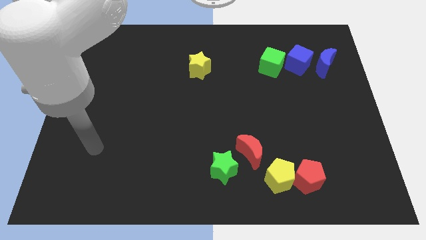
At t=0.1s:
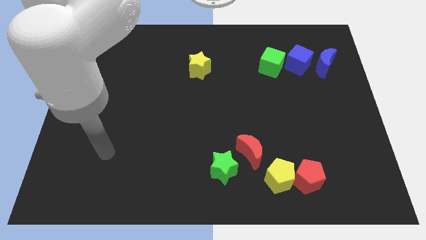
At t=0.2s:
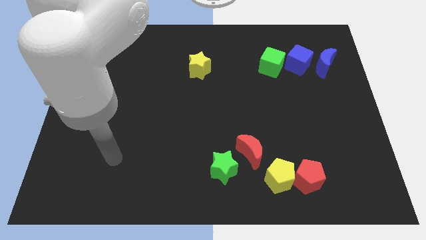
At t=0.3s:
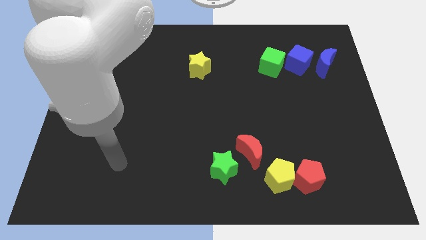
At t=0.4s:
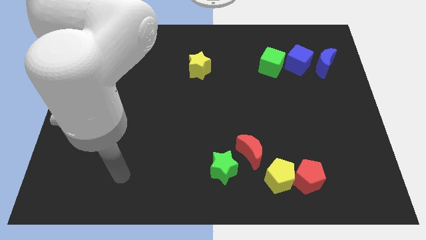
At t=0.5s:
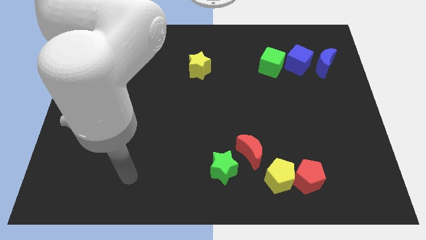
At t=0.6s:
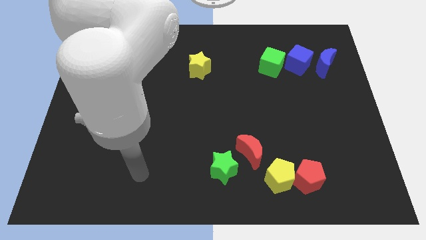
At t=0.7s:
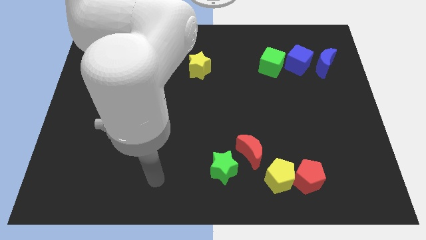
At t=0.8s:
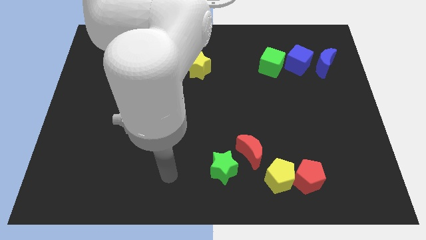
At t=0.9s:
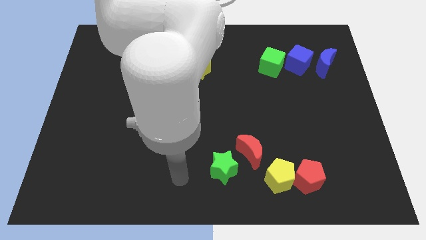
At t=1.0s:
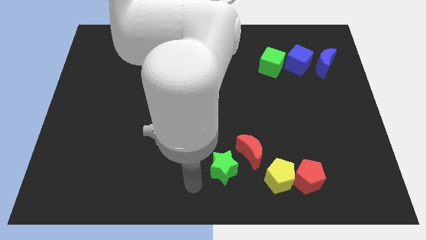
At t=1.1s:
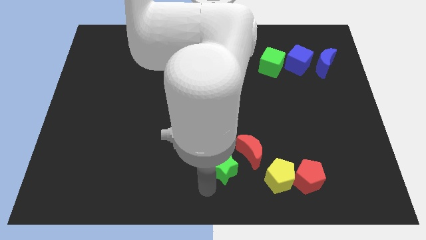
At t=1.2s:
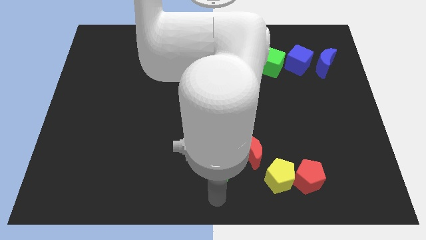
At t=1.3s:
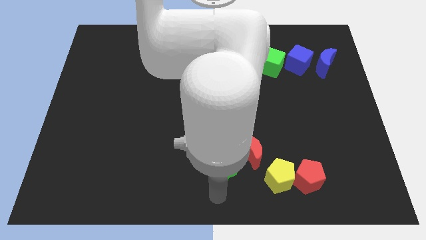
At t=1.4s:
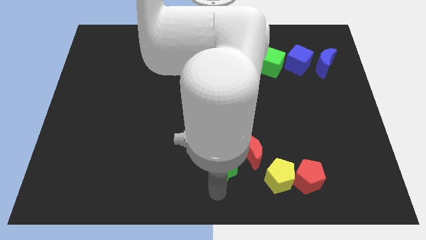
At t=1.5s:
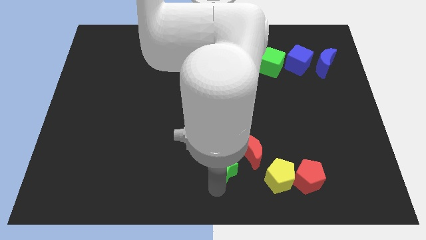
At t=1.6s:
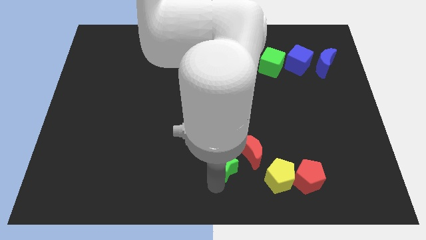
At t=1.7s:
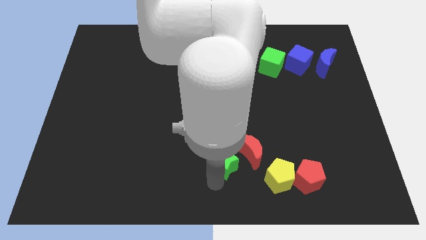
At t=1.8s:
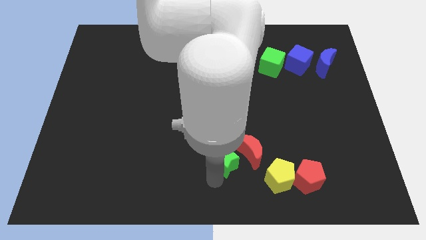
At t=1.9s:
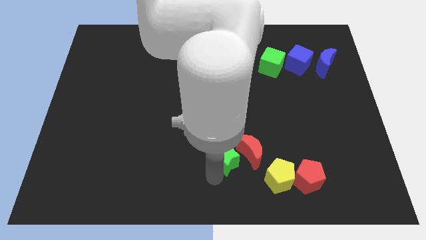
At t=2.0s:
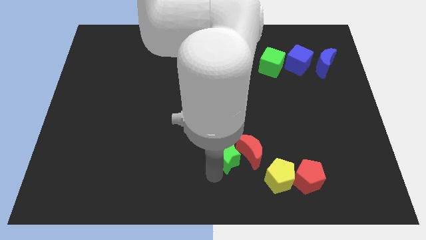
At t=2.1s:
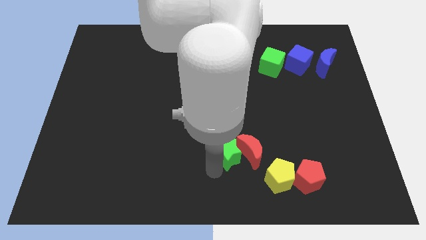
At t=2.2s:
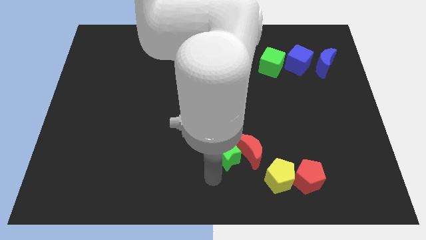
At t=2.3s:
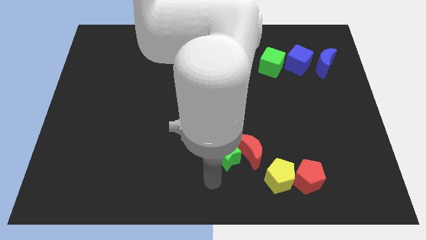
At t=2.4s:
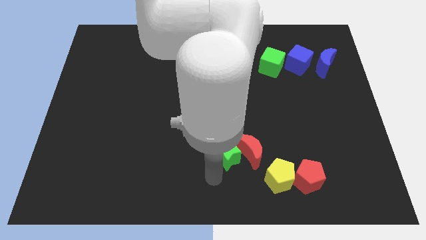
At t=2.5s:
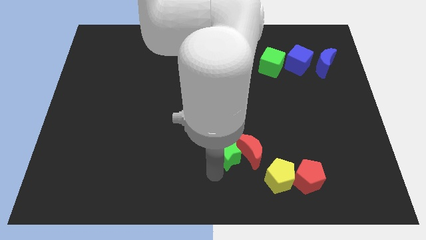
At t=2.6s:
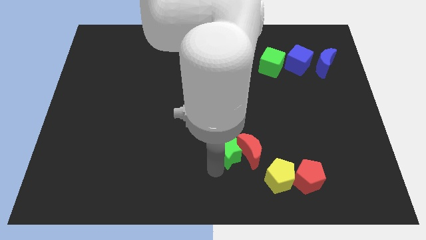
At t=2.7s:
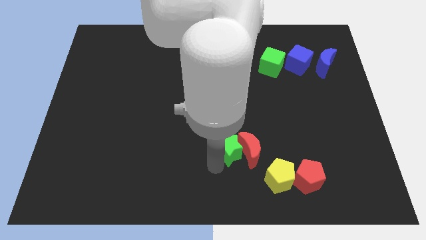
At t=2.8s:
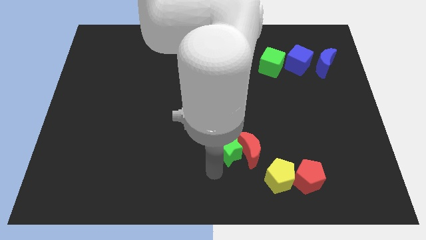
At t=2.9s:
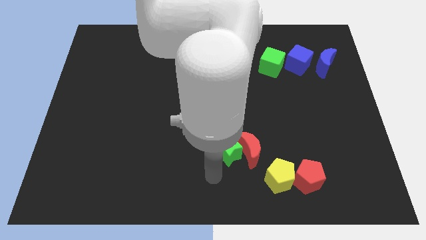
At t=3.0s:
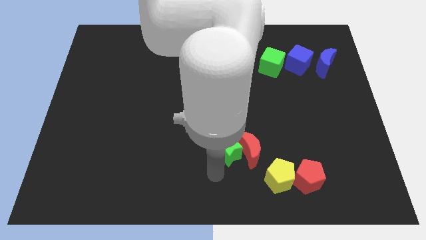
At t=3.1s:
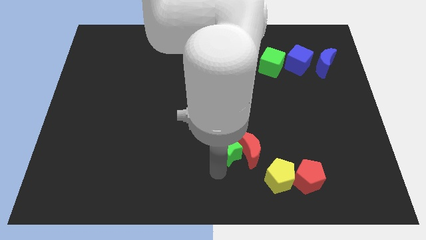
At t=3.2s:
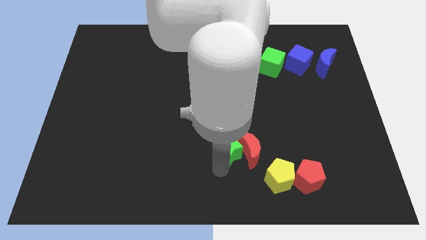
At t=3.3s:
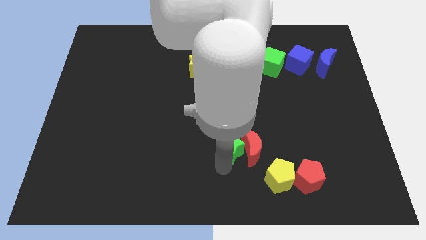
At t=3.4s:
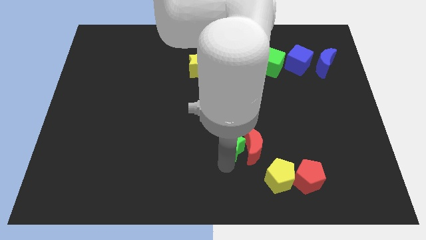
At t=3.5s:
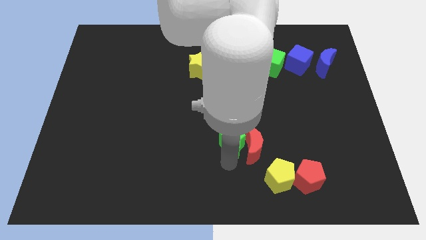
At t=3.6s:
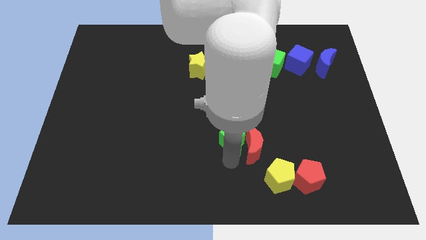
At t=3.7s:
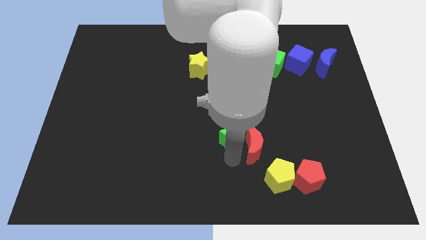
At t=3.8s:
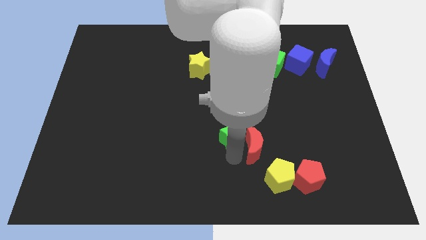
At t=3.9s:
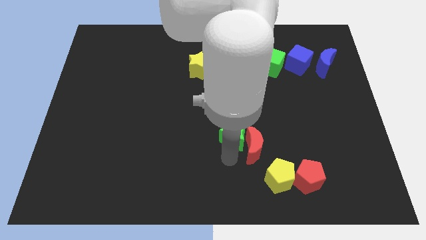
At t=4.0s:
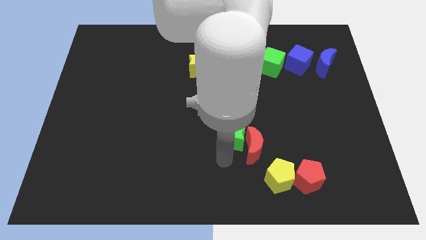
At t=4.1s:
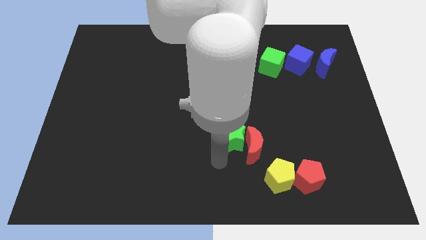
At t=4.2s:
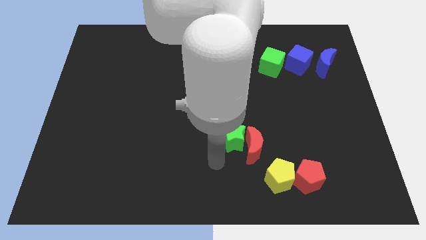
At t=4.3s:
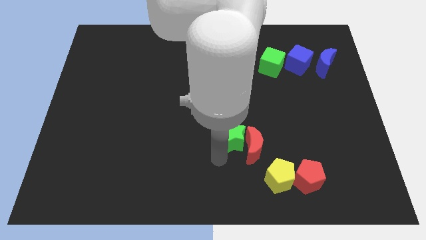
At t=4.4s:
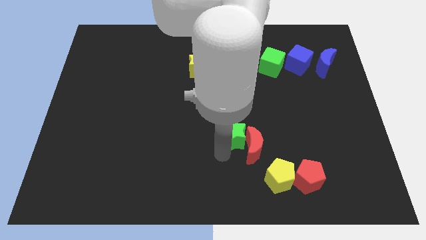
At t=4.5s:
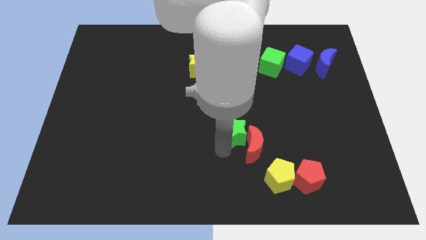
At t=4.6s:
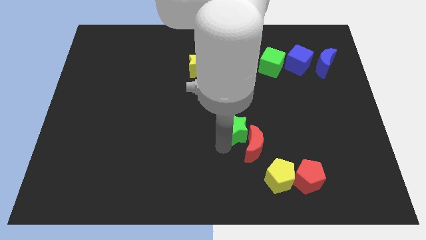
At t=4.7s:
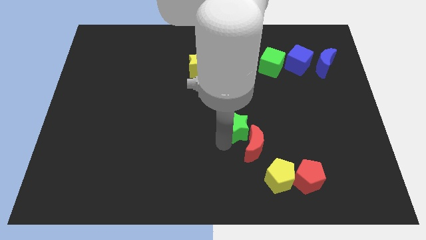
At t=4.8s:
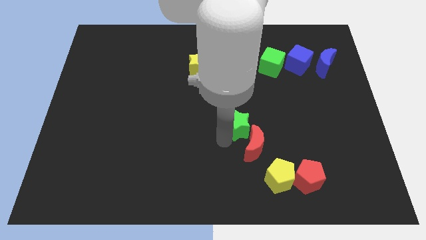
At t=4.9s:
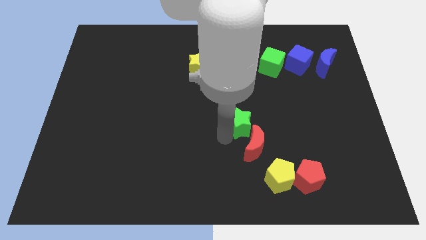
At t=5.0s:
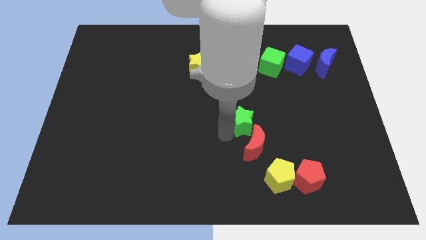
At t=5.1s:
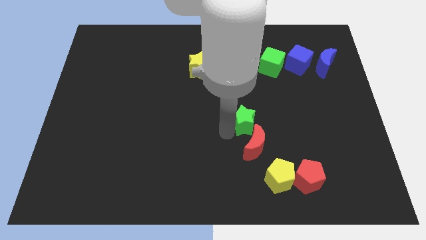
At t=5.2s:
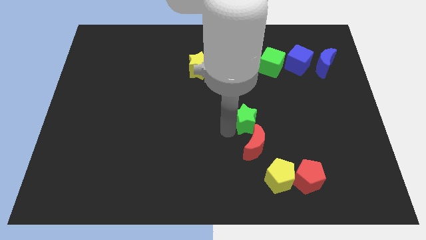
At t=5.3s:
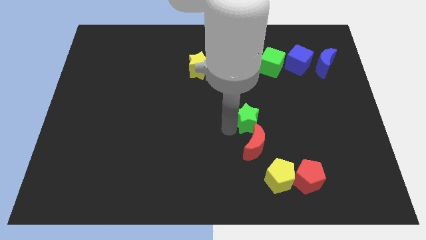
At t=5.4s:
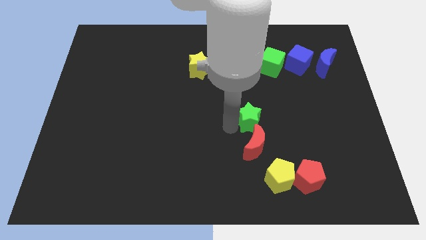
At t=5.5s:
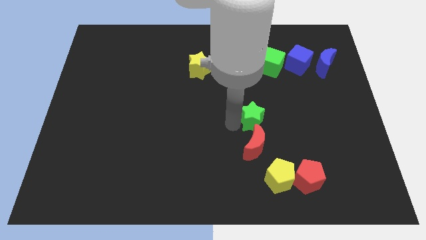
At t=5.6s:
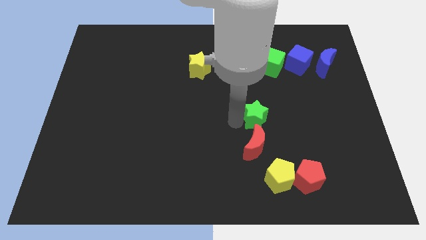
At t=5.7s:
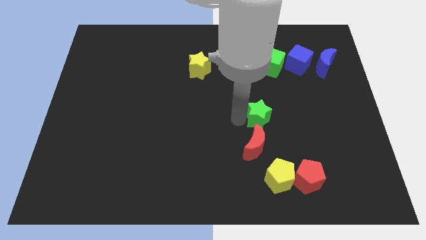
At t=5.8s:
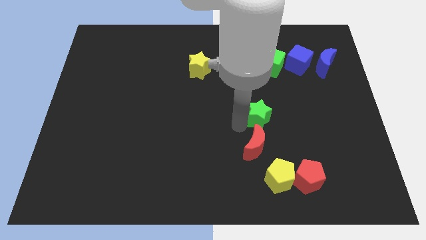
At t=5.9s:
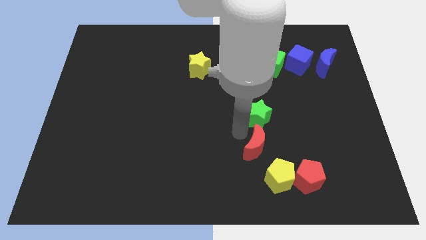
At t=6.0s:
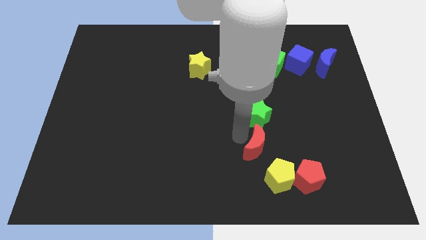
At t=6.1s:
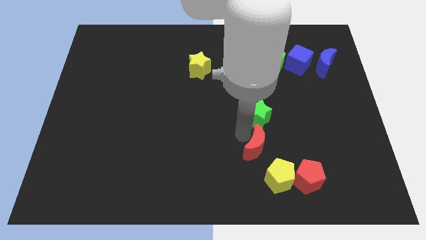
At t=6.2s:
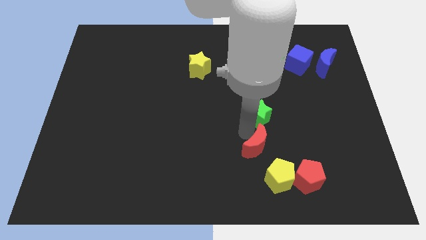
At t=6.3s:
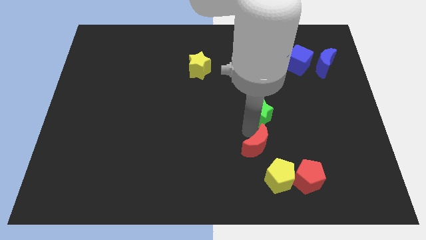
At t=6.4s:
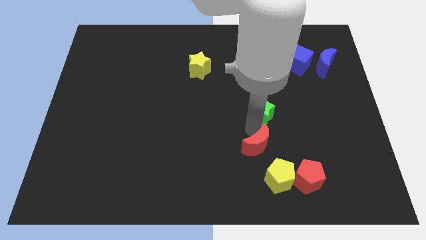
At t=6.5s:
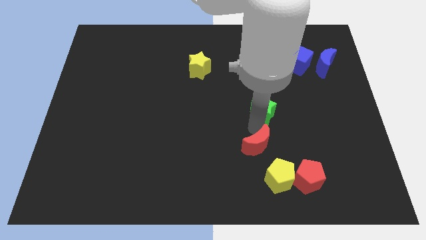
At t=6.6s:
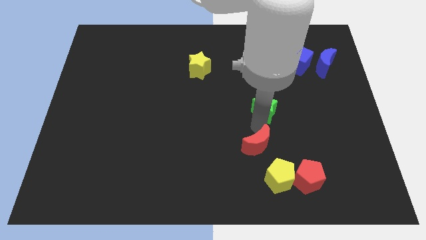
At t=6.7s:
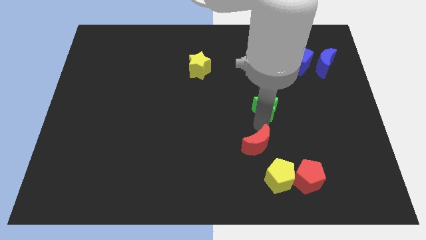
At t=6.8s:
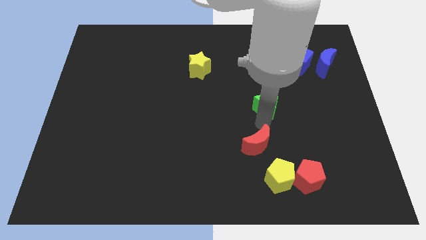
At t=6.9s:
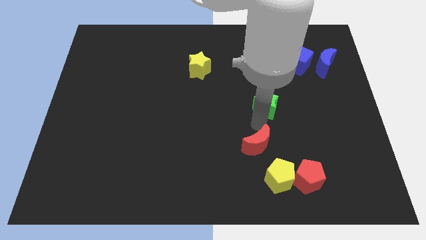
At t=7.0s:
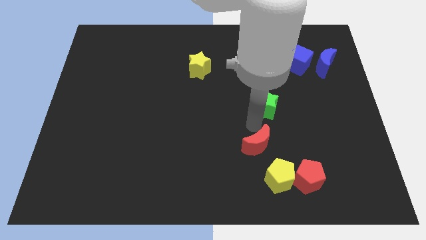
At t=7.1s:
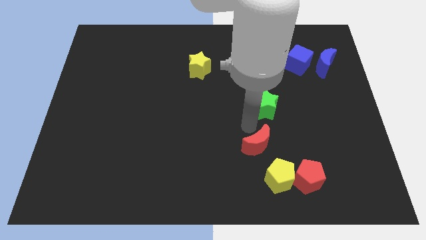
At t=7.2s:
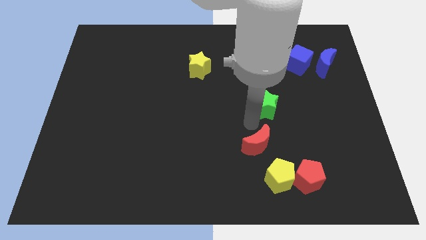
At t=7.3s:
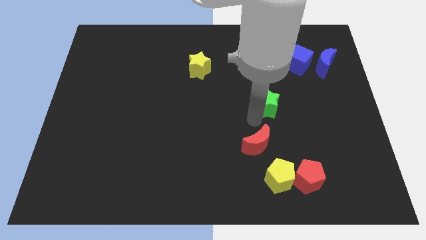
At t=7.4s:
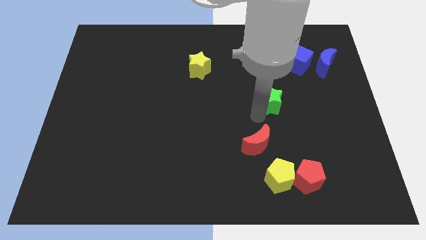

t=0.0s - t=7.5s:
move the green star upwards and right diagonally

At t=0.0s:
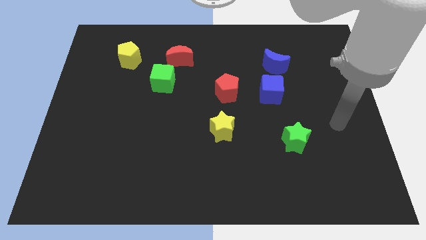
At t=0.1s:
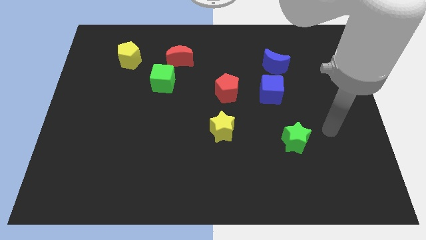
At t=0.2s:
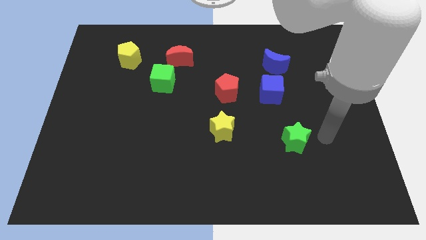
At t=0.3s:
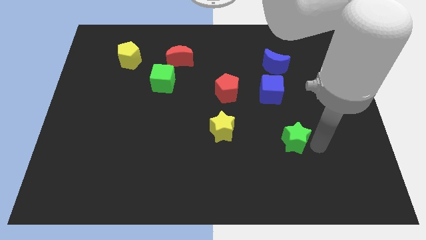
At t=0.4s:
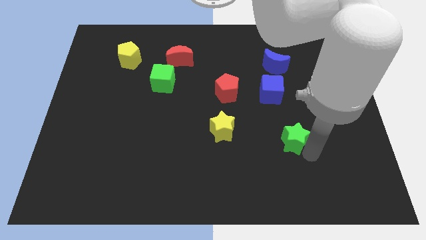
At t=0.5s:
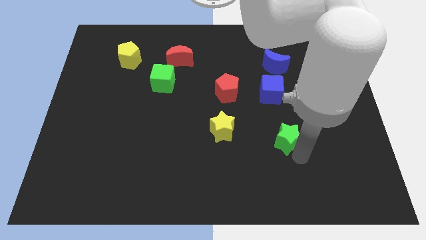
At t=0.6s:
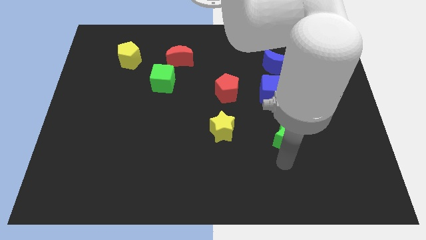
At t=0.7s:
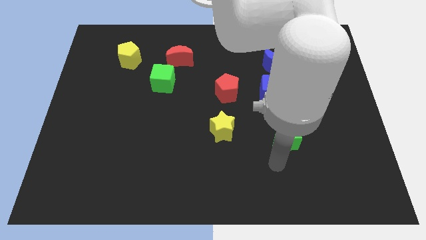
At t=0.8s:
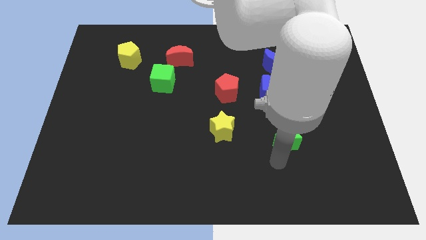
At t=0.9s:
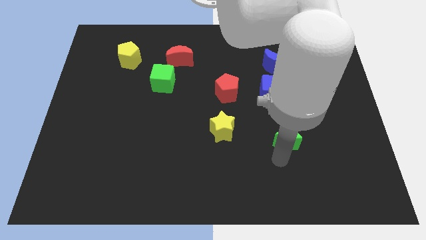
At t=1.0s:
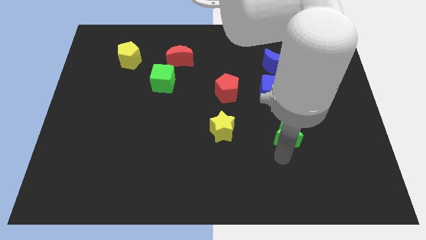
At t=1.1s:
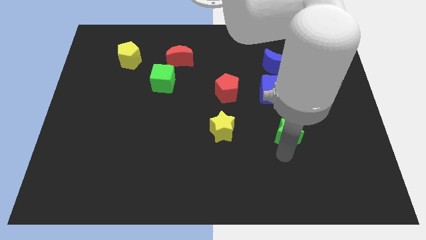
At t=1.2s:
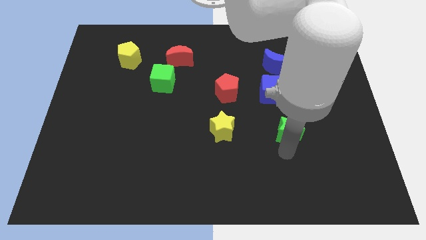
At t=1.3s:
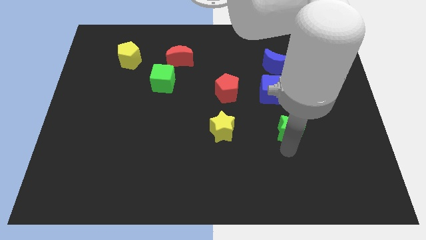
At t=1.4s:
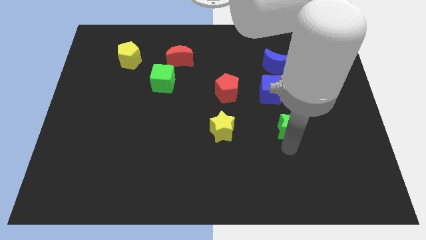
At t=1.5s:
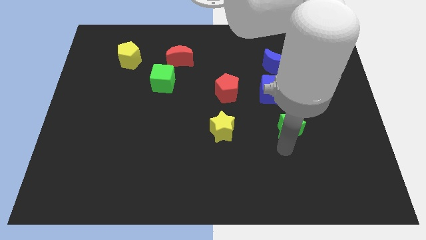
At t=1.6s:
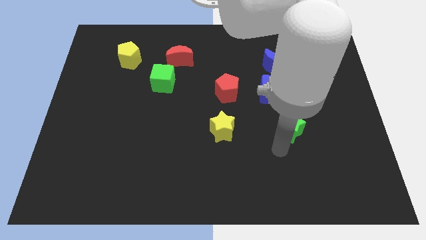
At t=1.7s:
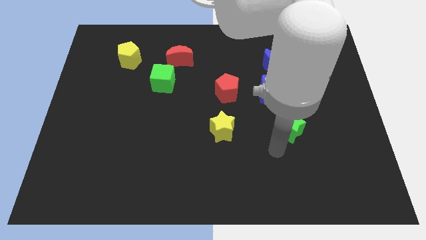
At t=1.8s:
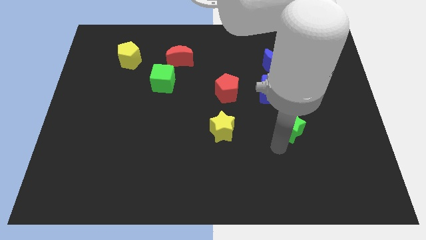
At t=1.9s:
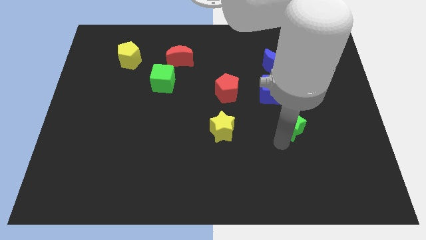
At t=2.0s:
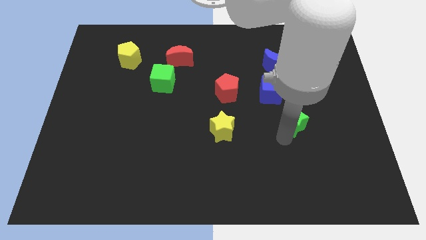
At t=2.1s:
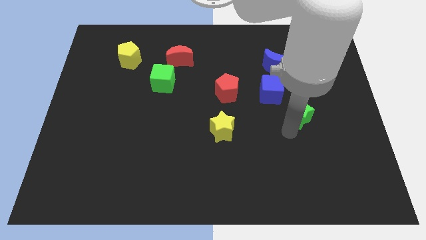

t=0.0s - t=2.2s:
slightly slide the green star upwards
